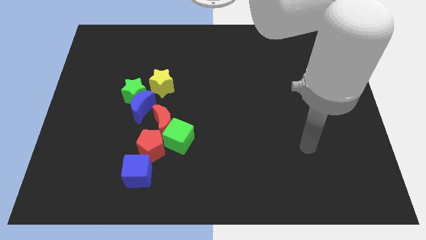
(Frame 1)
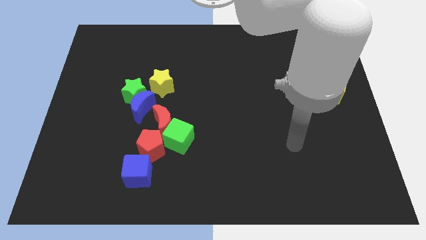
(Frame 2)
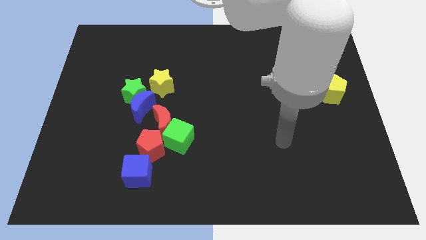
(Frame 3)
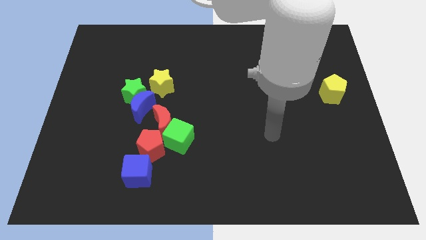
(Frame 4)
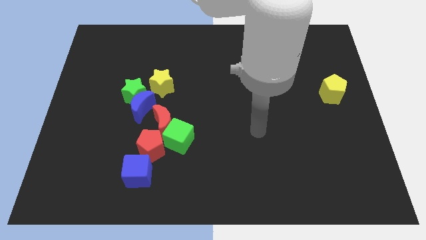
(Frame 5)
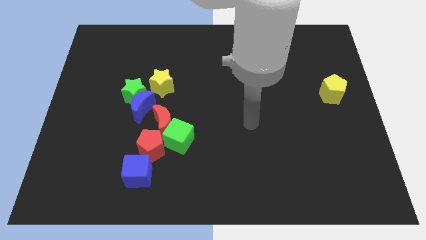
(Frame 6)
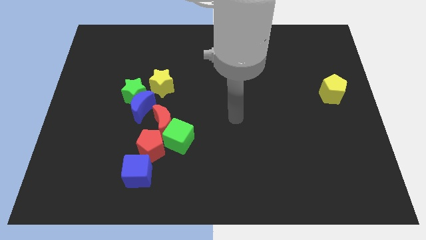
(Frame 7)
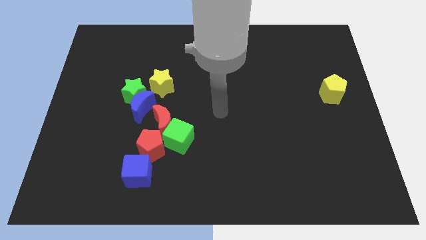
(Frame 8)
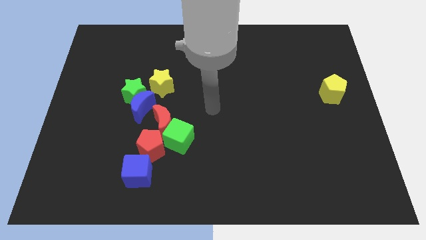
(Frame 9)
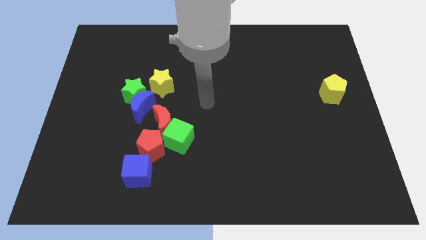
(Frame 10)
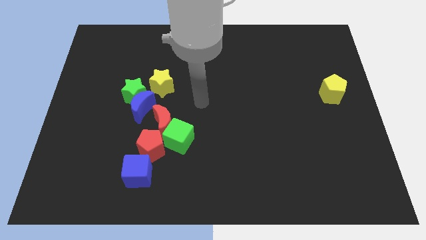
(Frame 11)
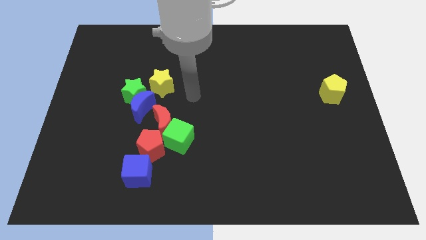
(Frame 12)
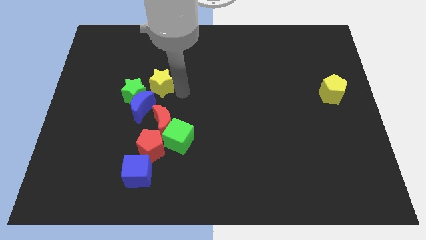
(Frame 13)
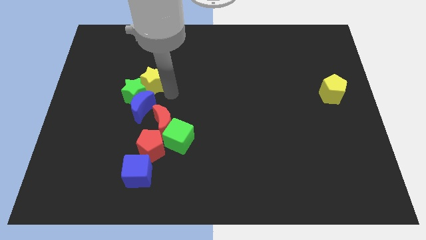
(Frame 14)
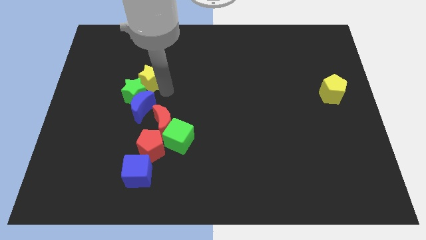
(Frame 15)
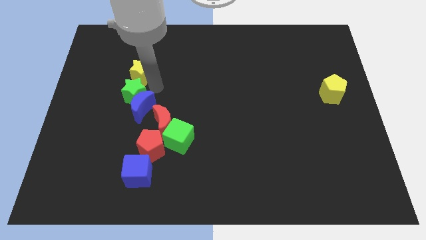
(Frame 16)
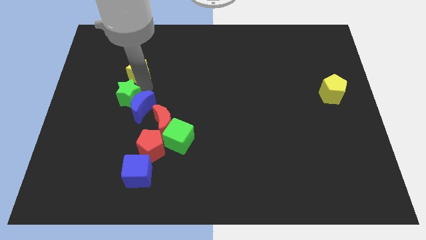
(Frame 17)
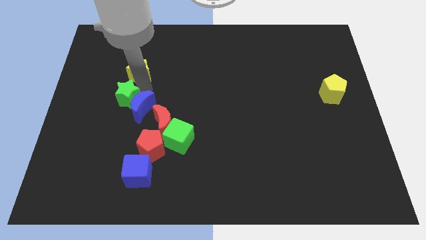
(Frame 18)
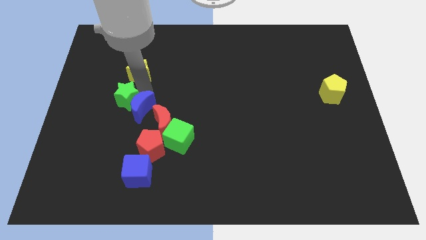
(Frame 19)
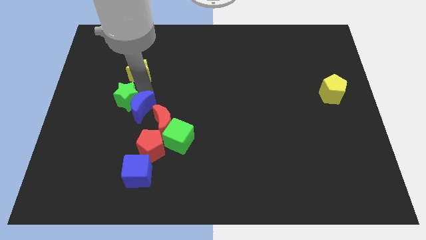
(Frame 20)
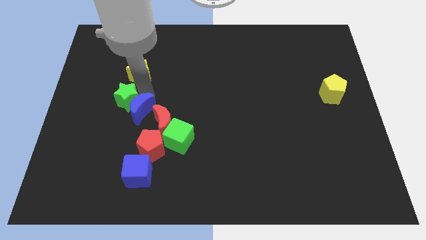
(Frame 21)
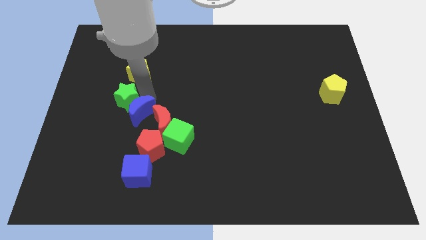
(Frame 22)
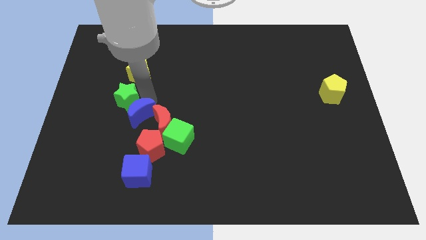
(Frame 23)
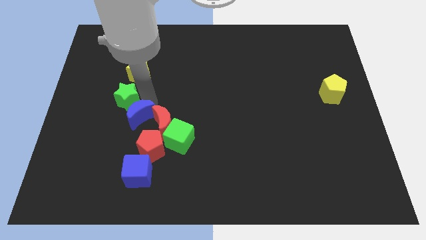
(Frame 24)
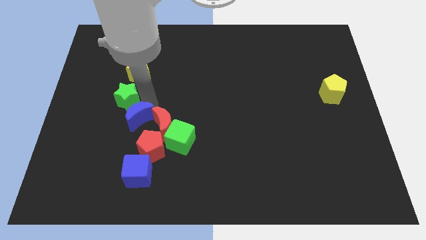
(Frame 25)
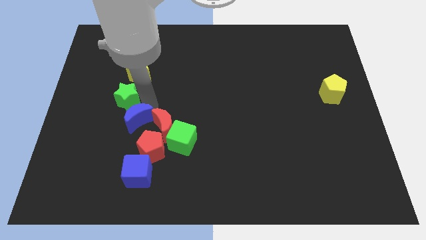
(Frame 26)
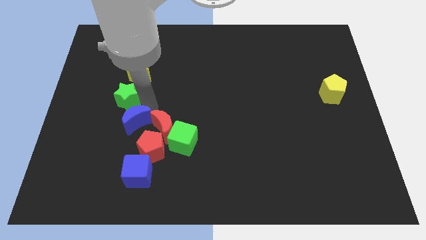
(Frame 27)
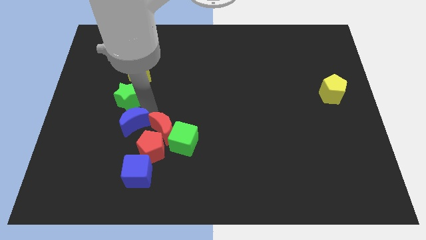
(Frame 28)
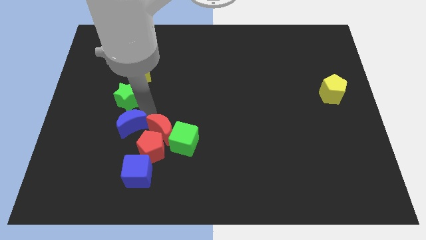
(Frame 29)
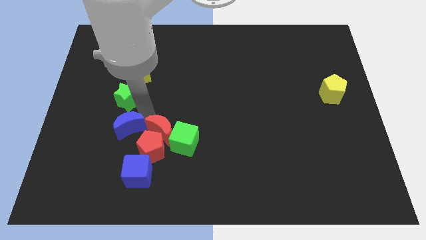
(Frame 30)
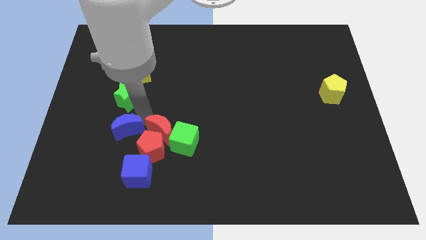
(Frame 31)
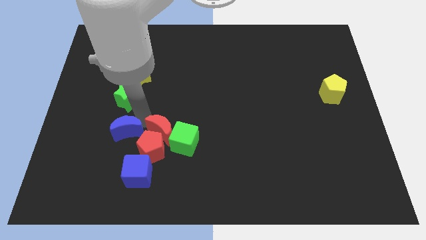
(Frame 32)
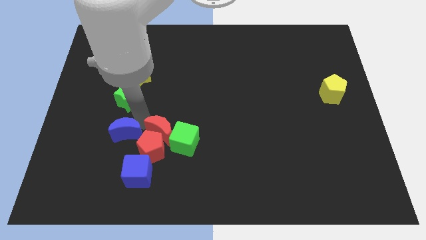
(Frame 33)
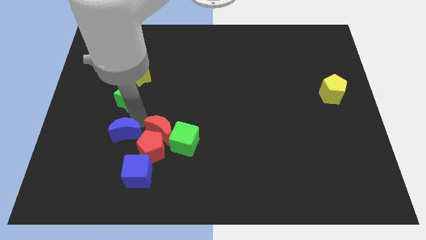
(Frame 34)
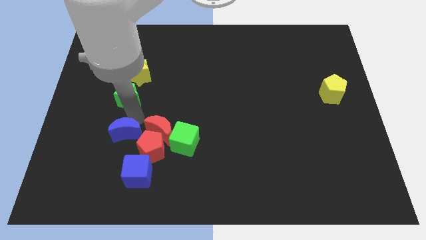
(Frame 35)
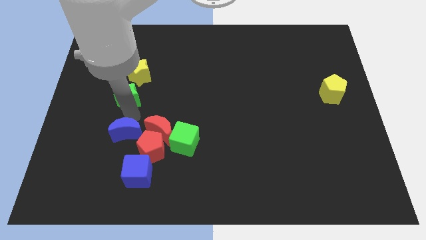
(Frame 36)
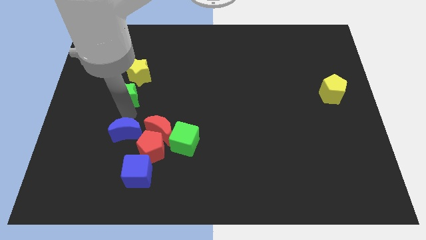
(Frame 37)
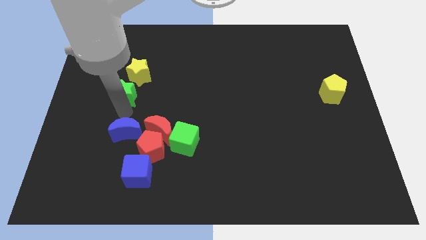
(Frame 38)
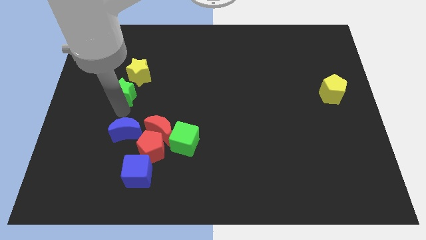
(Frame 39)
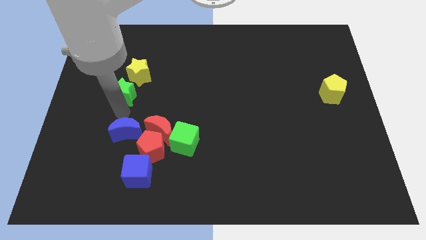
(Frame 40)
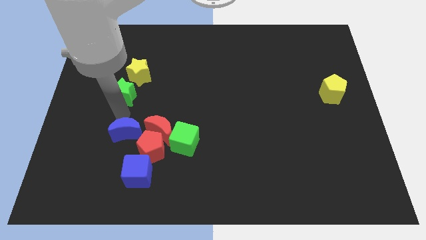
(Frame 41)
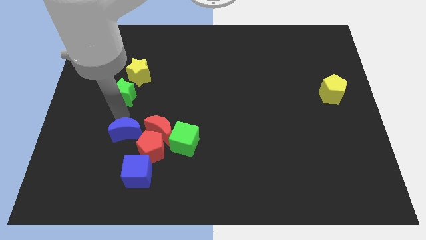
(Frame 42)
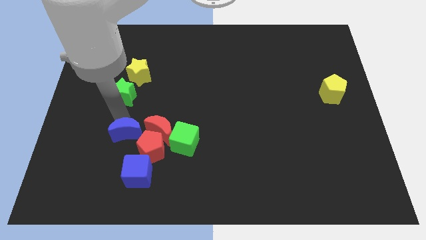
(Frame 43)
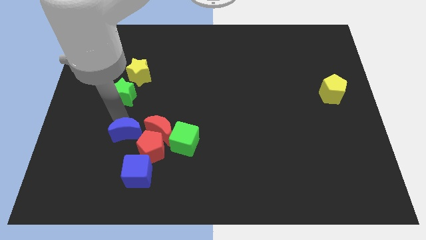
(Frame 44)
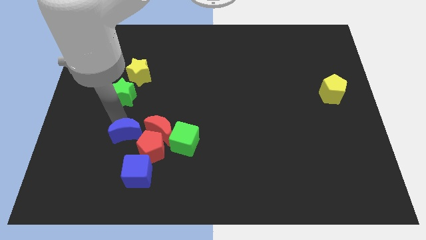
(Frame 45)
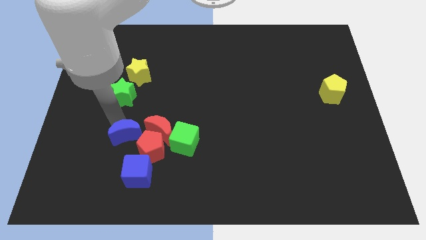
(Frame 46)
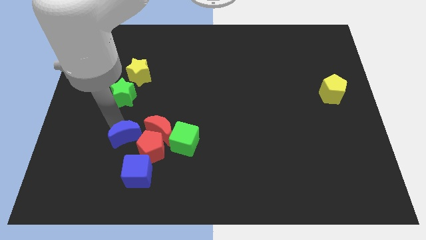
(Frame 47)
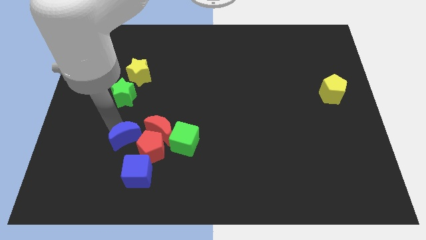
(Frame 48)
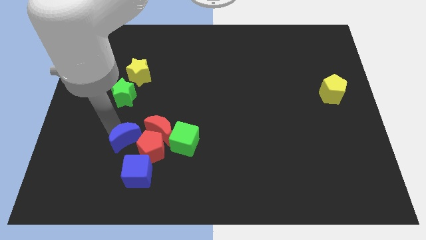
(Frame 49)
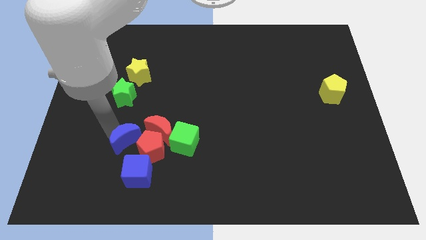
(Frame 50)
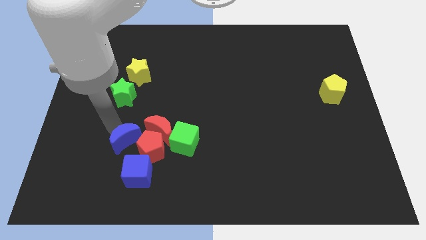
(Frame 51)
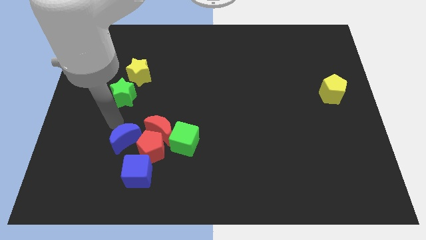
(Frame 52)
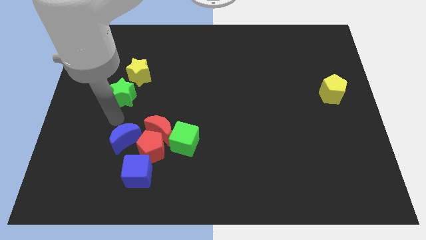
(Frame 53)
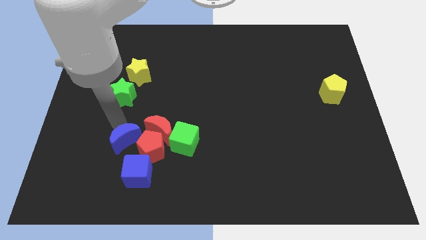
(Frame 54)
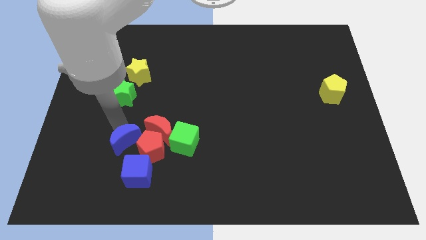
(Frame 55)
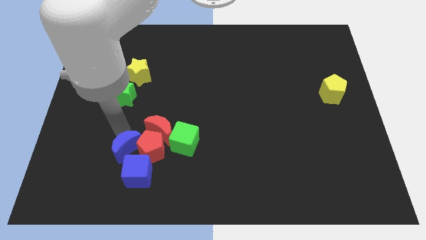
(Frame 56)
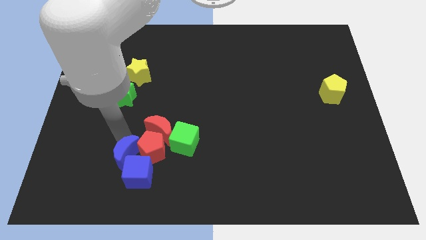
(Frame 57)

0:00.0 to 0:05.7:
put the blue moon next to the blue cube

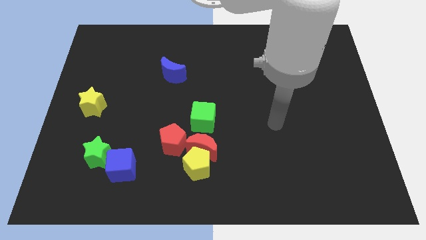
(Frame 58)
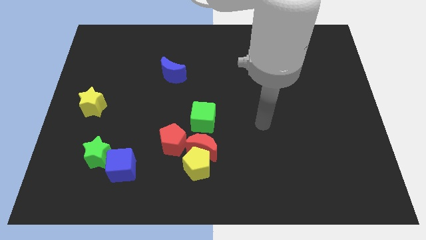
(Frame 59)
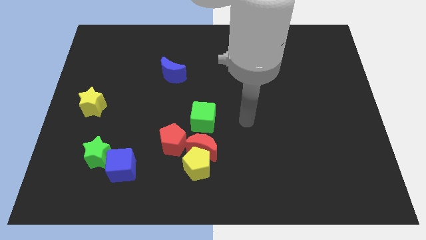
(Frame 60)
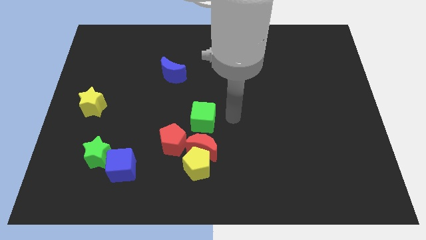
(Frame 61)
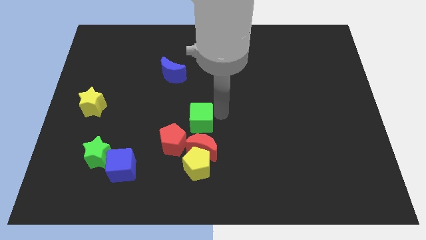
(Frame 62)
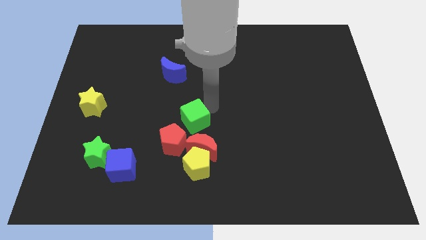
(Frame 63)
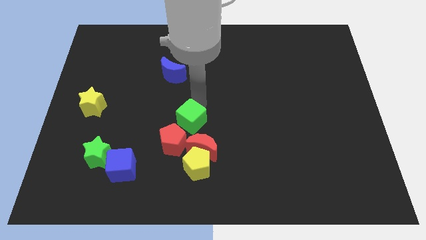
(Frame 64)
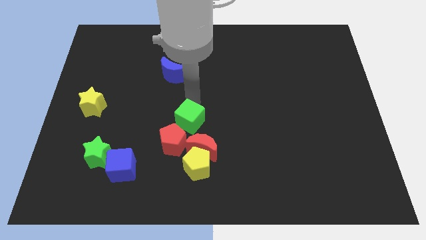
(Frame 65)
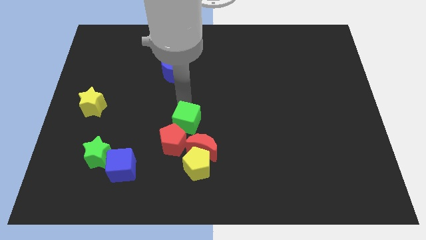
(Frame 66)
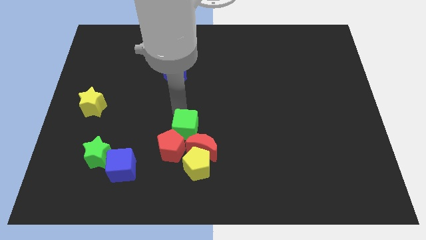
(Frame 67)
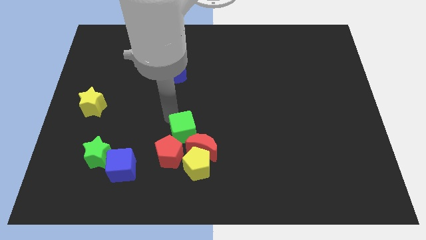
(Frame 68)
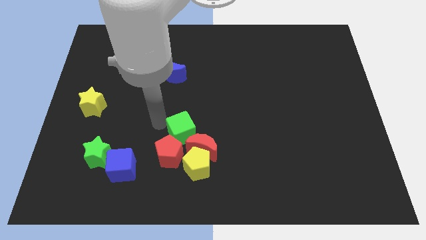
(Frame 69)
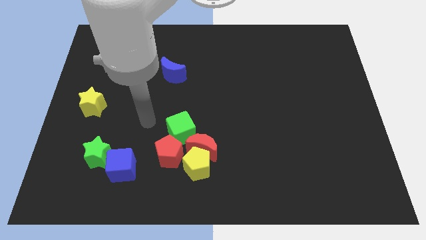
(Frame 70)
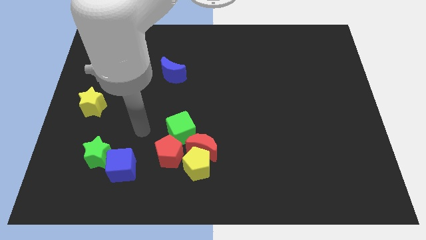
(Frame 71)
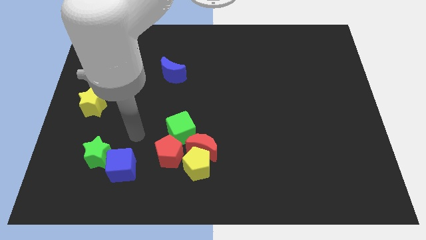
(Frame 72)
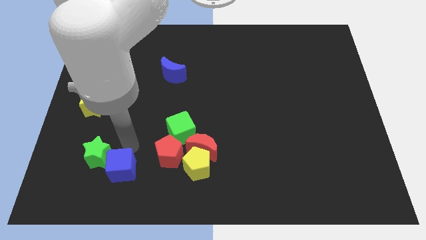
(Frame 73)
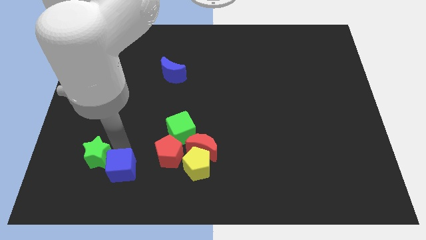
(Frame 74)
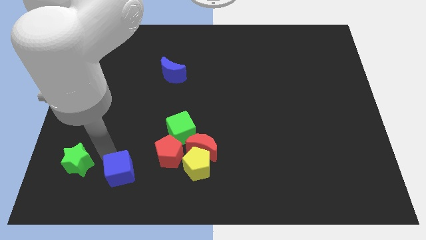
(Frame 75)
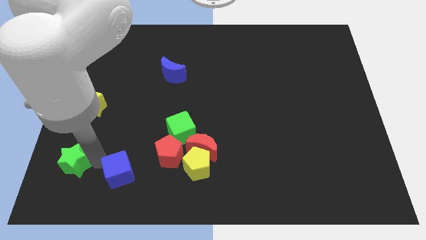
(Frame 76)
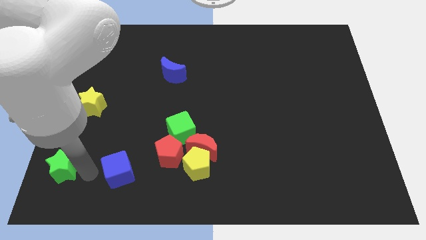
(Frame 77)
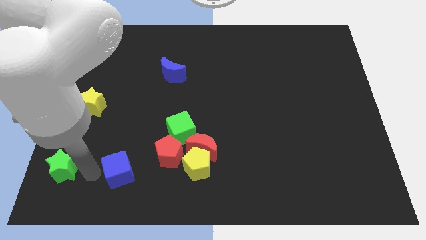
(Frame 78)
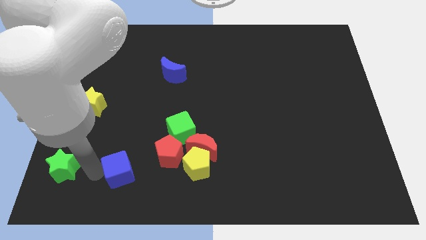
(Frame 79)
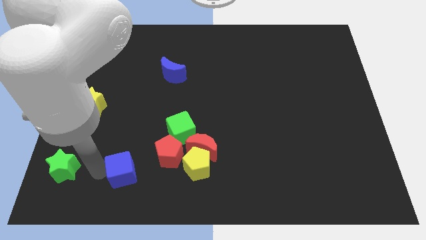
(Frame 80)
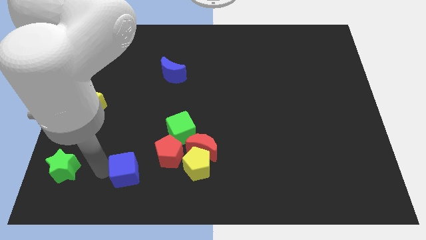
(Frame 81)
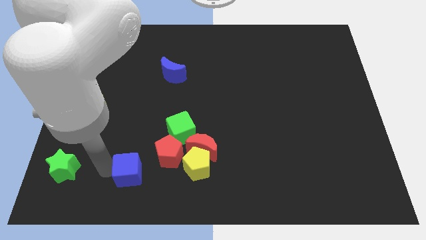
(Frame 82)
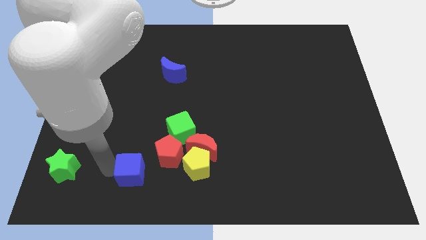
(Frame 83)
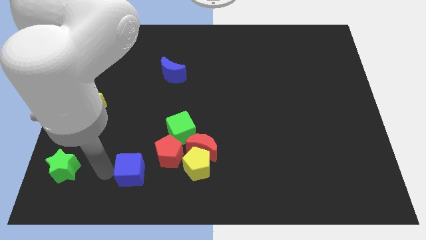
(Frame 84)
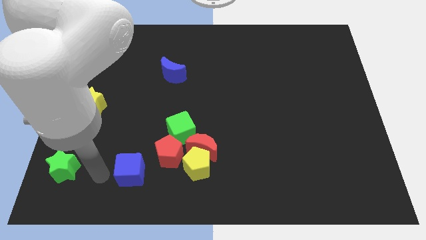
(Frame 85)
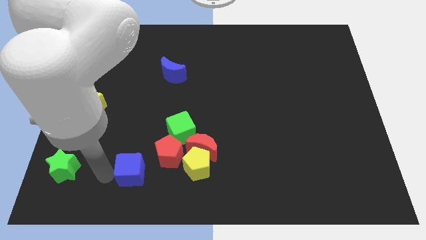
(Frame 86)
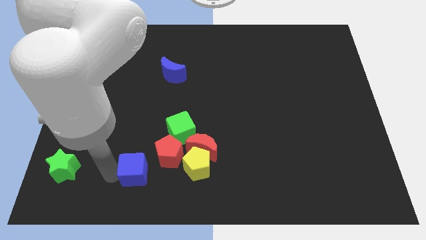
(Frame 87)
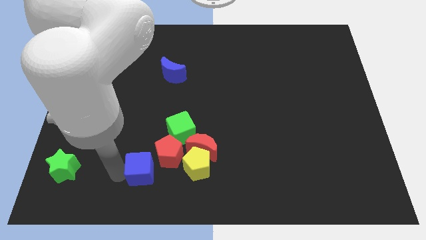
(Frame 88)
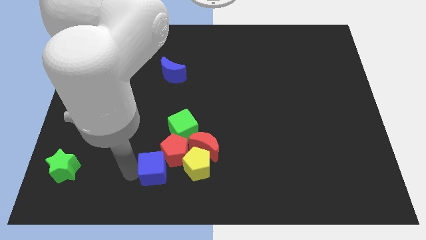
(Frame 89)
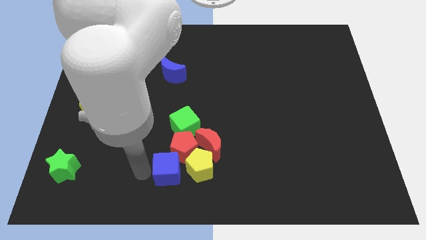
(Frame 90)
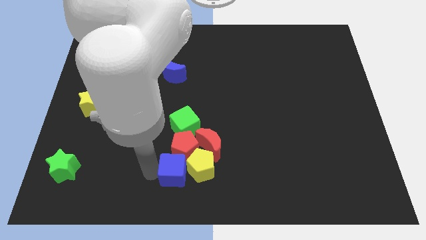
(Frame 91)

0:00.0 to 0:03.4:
slide the blue cube to the yellow pentagon
